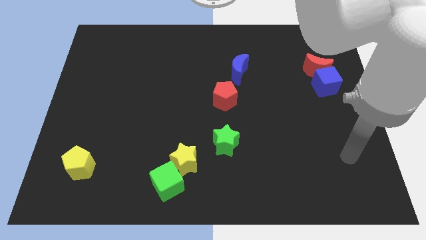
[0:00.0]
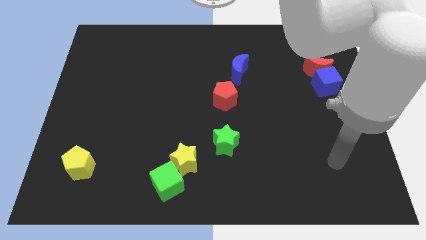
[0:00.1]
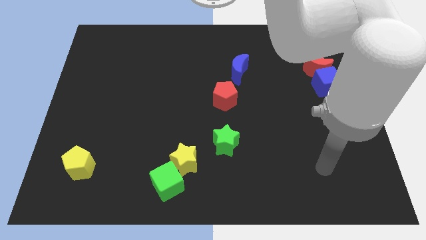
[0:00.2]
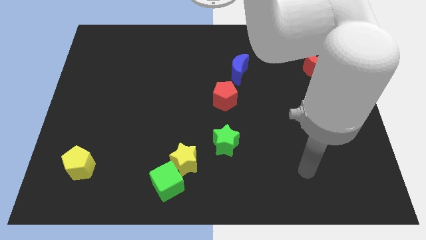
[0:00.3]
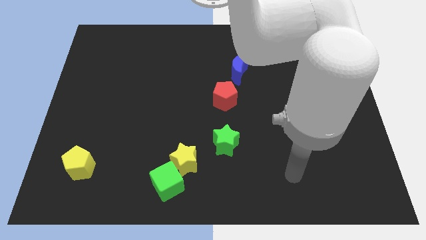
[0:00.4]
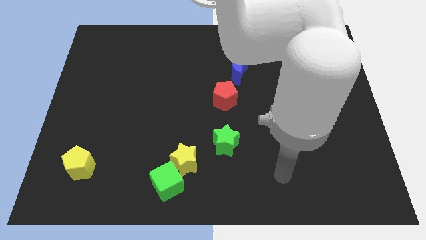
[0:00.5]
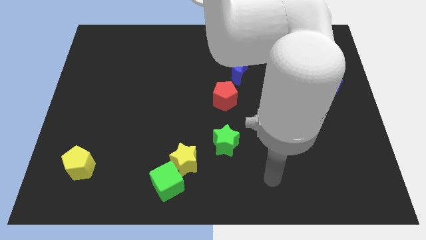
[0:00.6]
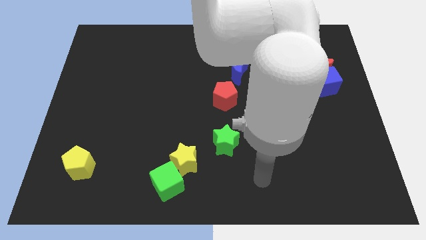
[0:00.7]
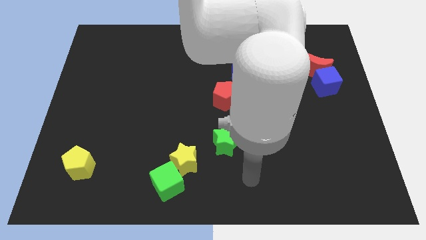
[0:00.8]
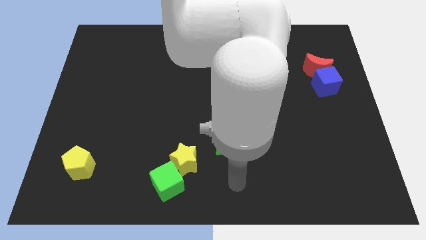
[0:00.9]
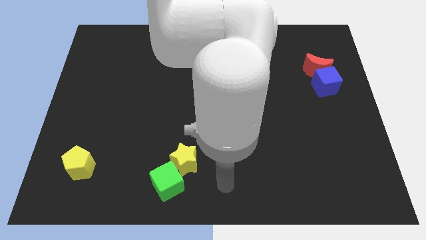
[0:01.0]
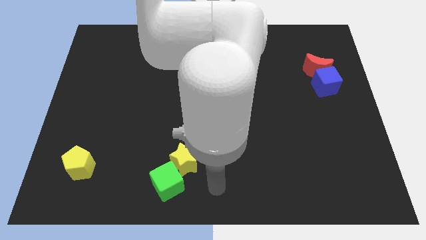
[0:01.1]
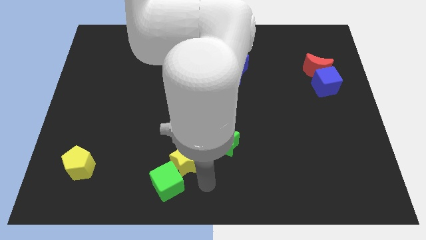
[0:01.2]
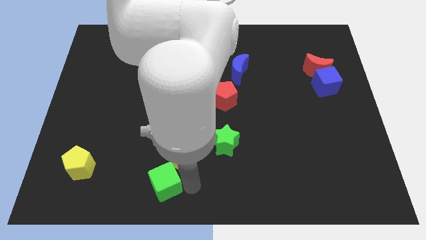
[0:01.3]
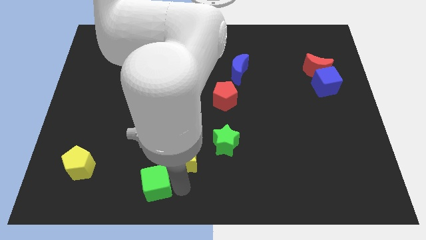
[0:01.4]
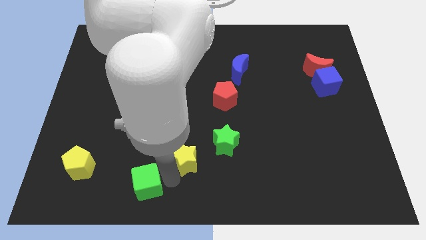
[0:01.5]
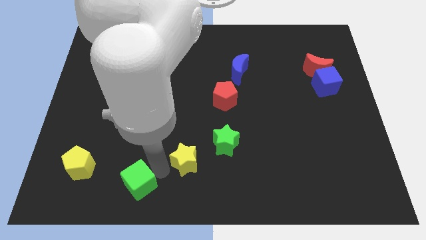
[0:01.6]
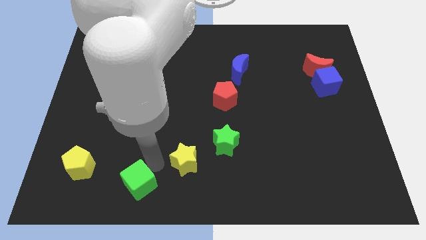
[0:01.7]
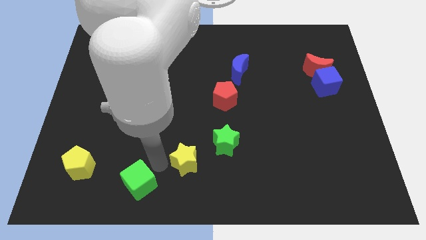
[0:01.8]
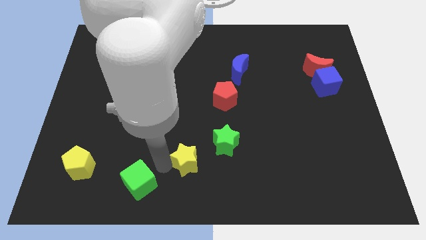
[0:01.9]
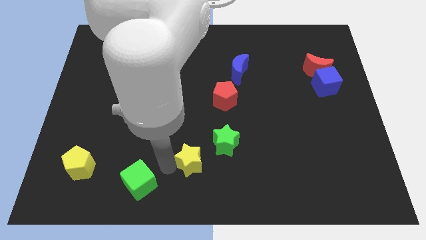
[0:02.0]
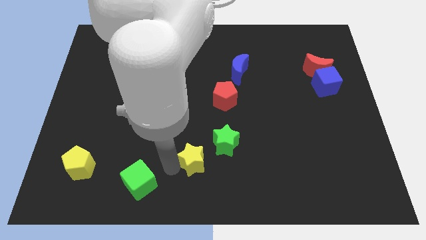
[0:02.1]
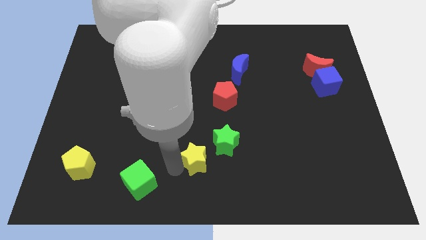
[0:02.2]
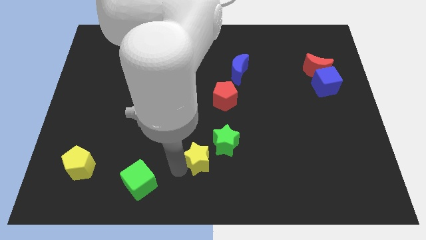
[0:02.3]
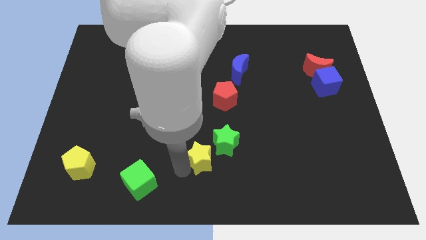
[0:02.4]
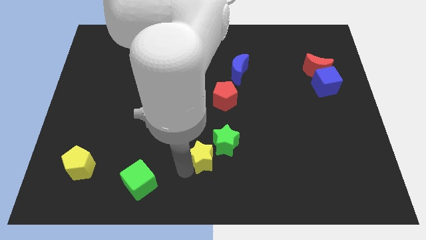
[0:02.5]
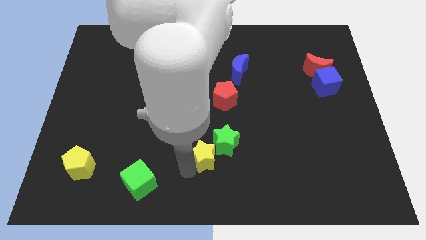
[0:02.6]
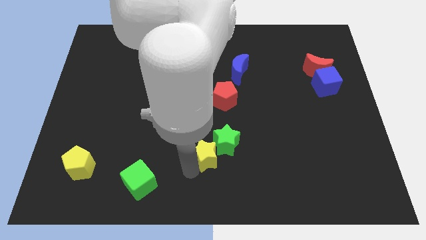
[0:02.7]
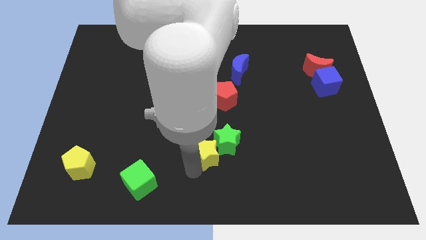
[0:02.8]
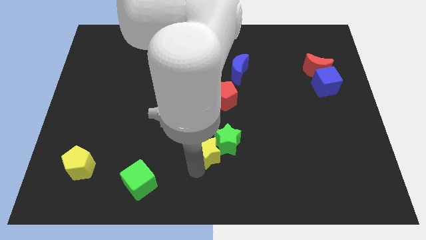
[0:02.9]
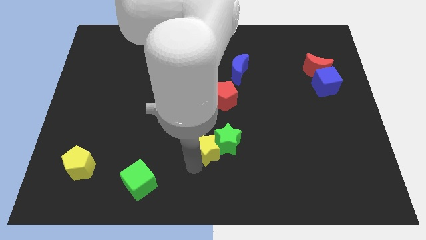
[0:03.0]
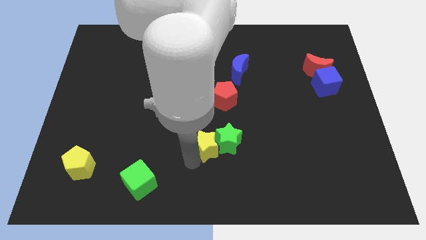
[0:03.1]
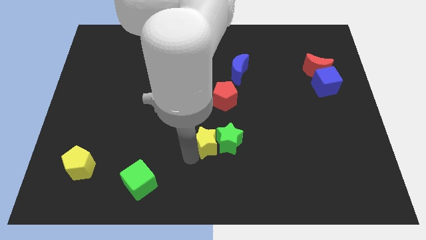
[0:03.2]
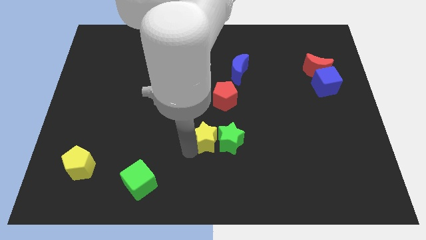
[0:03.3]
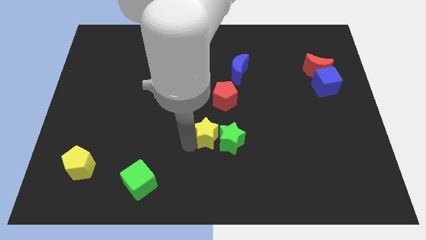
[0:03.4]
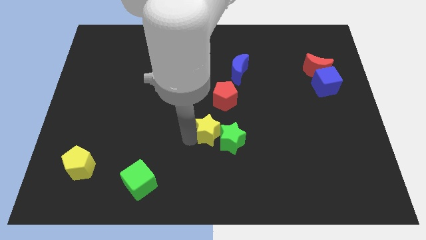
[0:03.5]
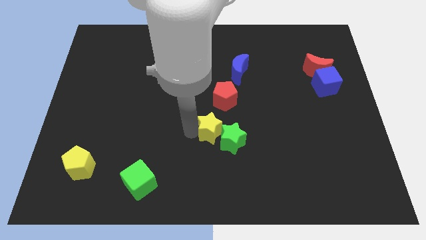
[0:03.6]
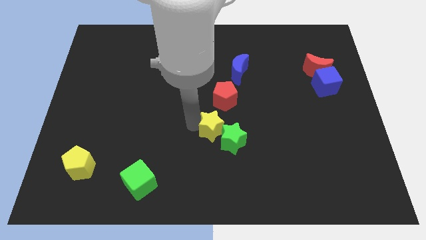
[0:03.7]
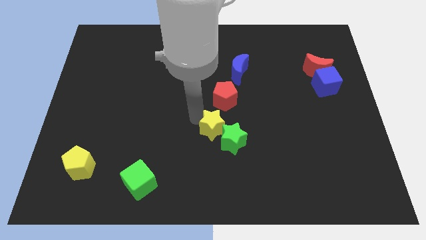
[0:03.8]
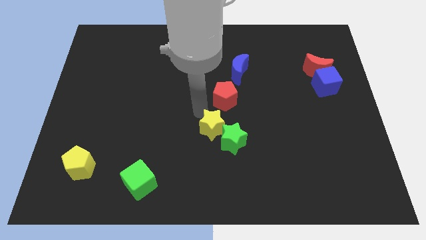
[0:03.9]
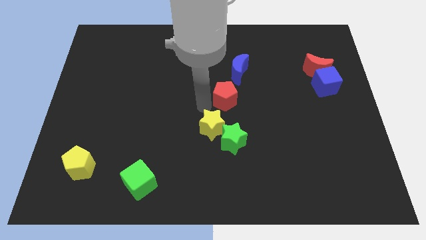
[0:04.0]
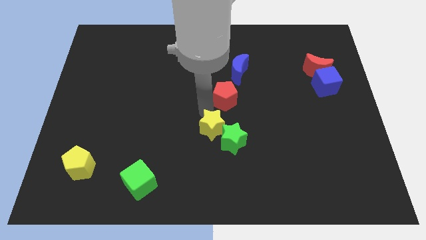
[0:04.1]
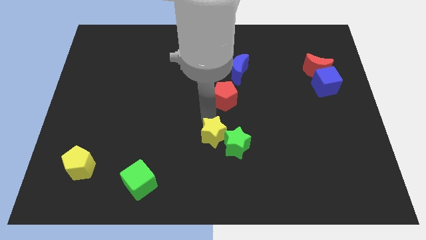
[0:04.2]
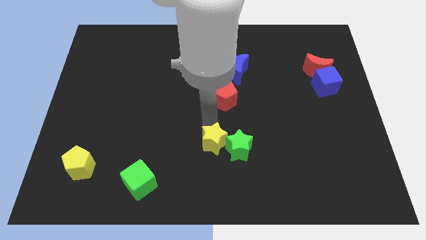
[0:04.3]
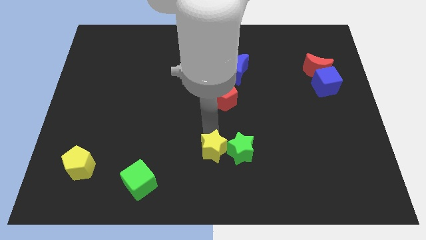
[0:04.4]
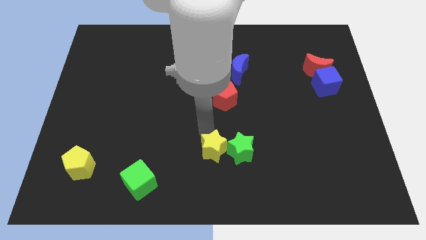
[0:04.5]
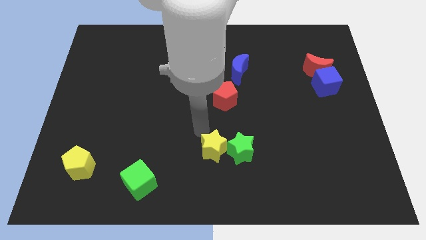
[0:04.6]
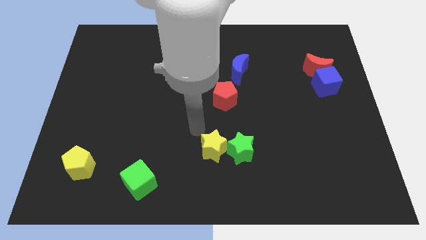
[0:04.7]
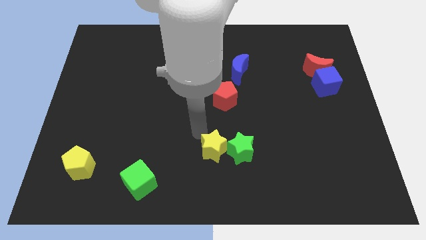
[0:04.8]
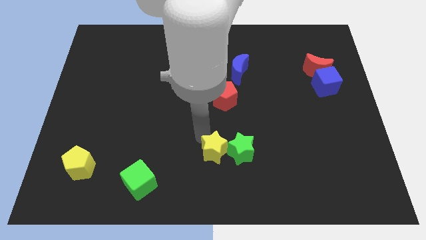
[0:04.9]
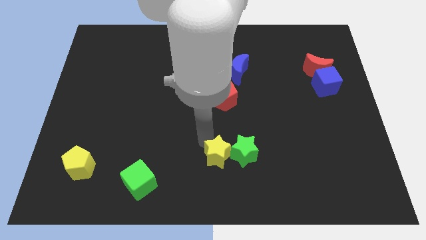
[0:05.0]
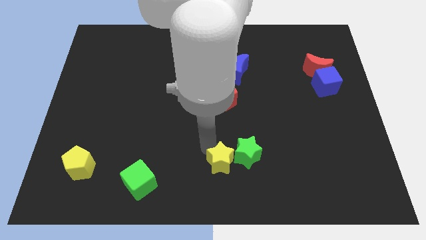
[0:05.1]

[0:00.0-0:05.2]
push the yellow star to the right a little bit

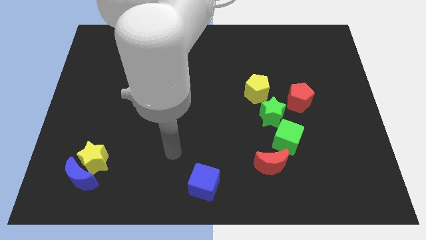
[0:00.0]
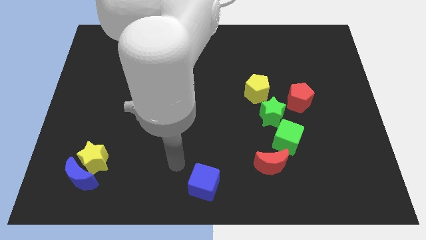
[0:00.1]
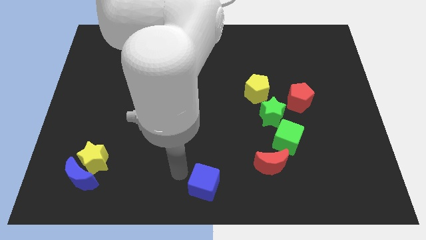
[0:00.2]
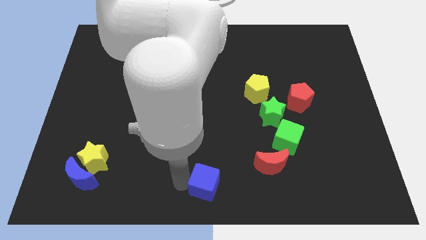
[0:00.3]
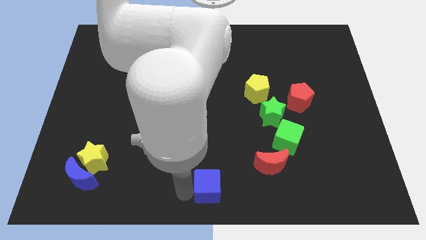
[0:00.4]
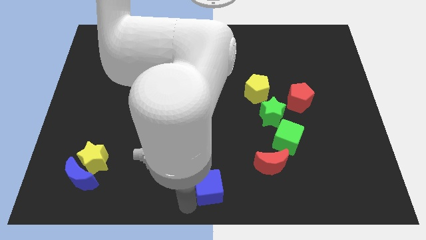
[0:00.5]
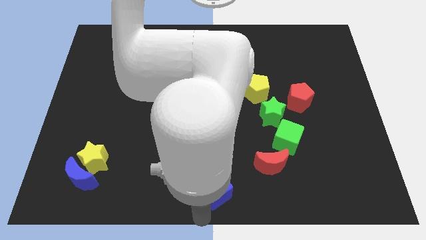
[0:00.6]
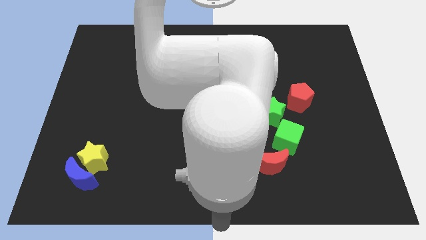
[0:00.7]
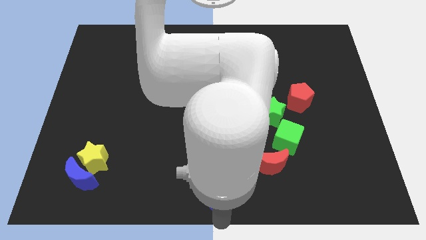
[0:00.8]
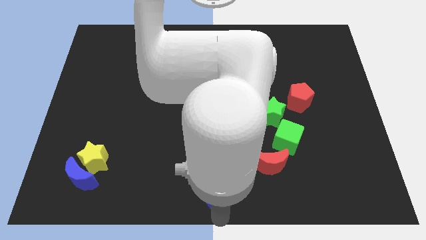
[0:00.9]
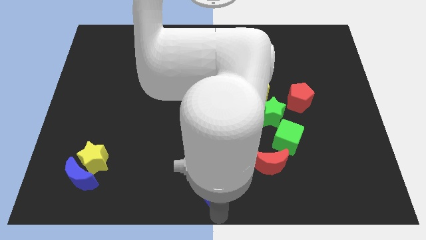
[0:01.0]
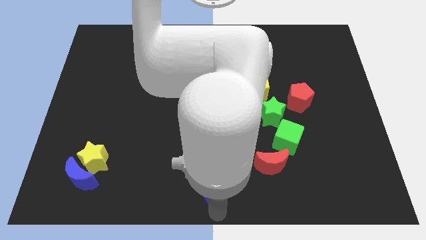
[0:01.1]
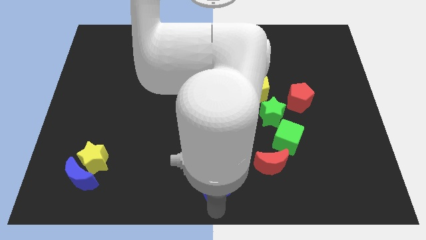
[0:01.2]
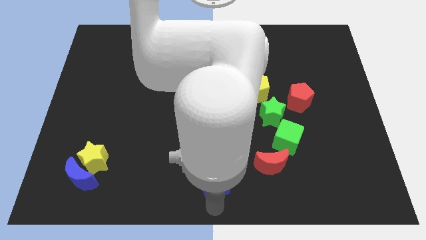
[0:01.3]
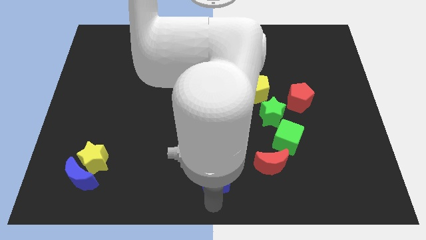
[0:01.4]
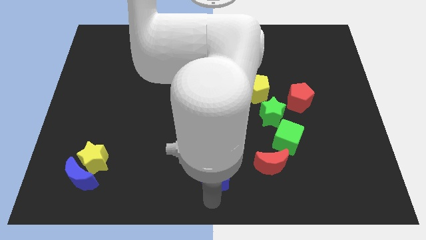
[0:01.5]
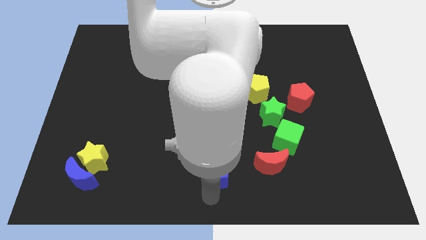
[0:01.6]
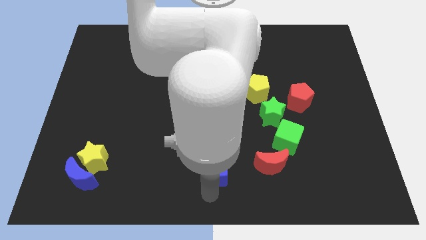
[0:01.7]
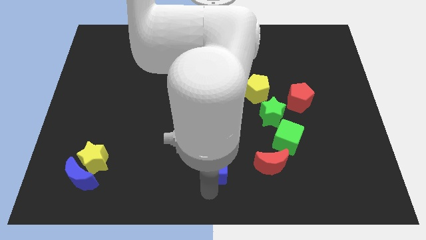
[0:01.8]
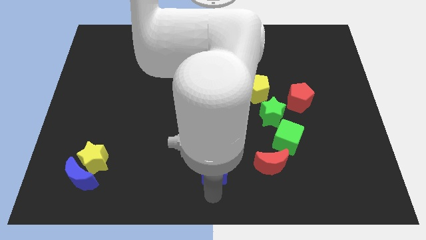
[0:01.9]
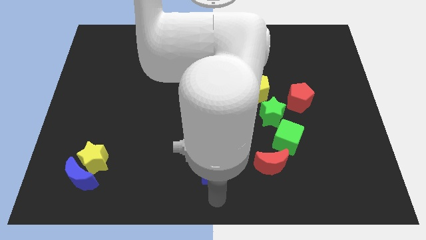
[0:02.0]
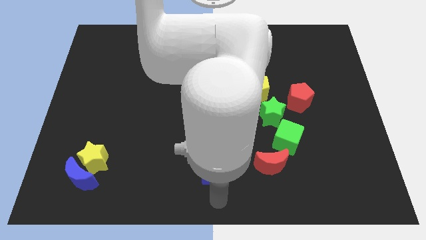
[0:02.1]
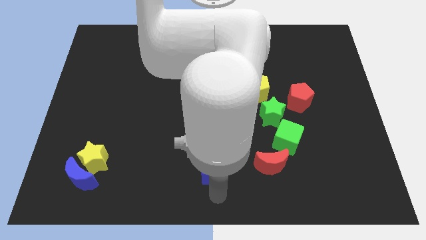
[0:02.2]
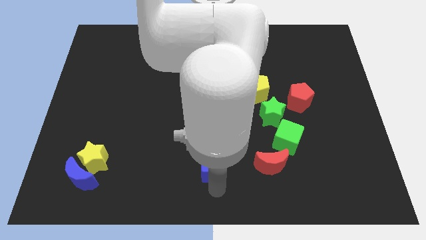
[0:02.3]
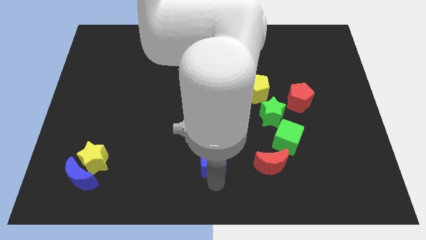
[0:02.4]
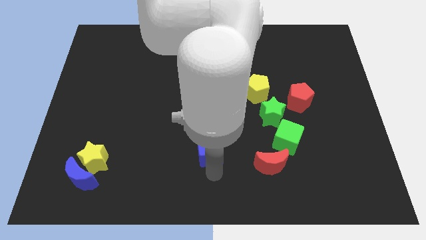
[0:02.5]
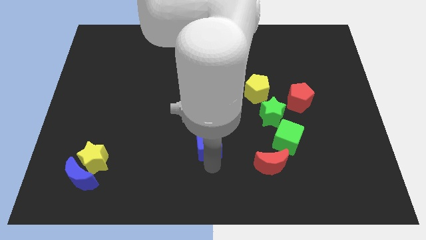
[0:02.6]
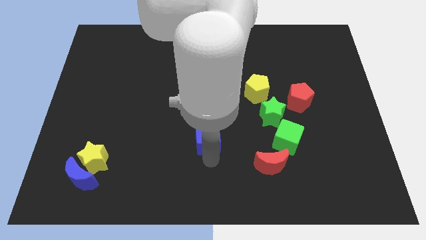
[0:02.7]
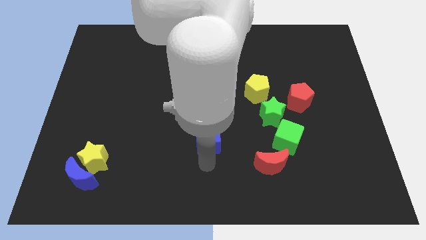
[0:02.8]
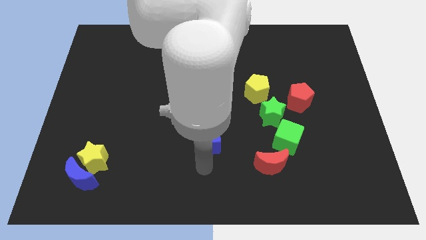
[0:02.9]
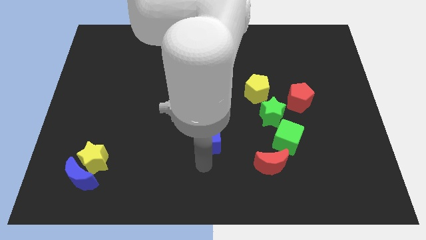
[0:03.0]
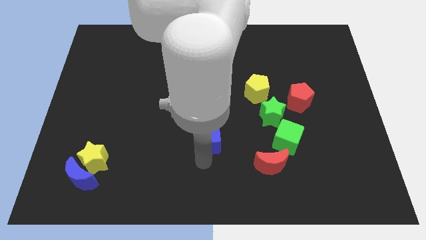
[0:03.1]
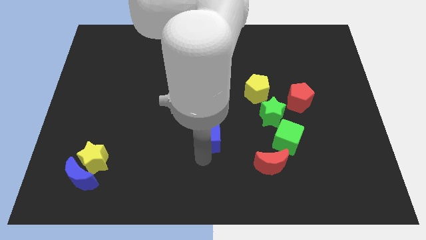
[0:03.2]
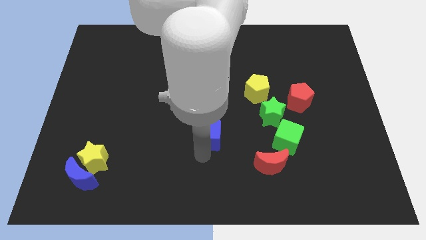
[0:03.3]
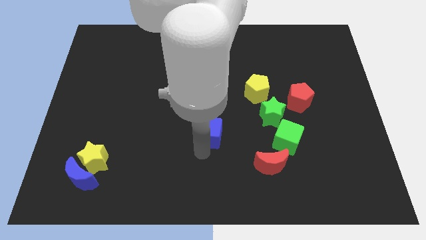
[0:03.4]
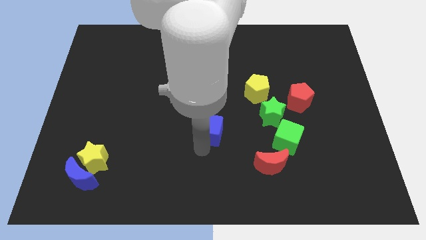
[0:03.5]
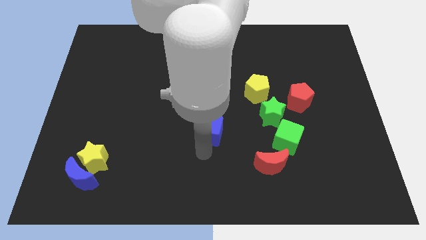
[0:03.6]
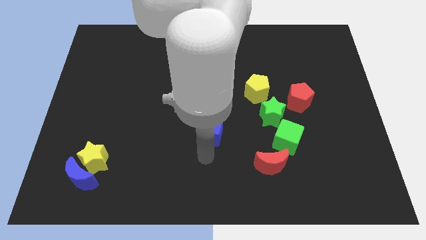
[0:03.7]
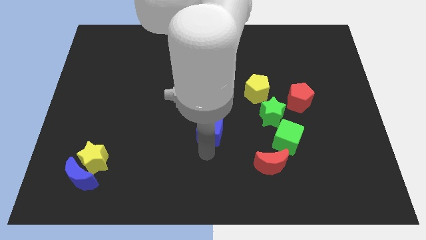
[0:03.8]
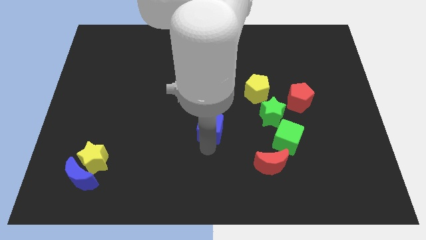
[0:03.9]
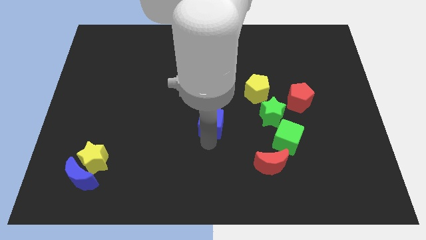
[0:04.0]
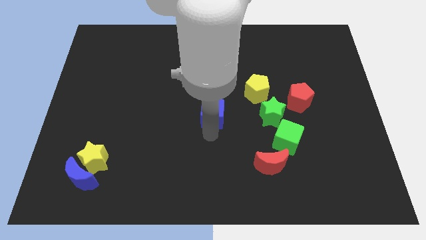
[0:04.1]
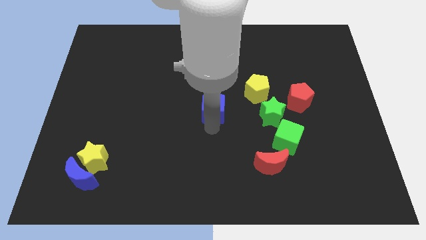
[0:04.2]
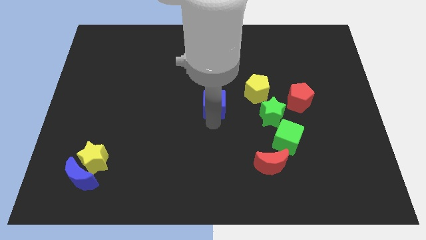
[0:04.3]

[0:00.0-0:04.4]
slide the blue cube up
